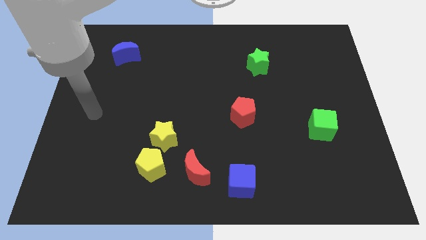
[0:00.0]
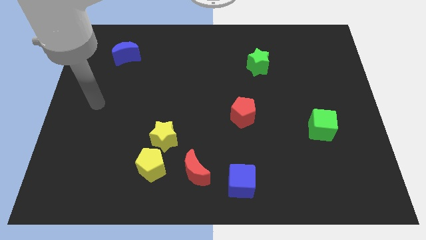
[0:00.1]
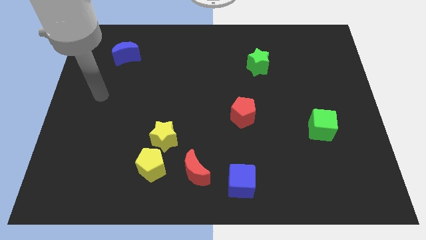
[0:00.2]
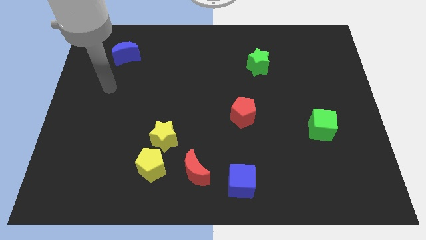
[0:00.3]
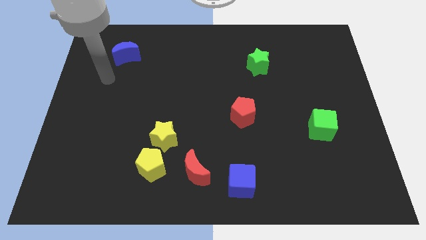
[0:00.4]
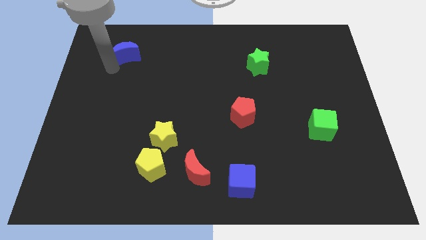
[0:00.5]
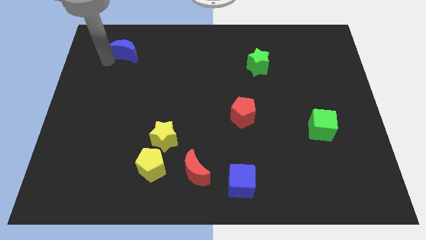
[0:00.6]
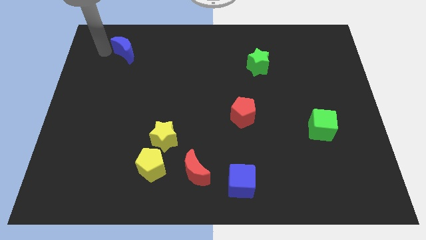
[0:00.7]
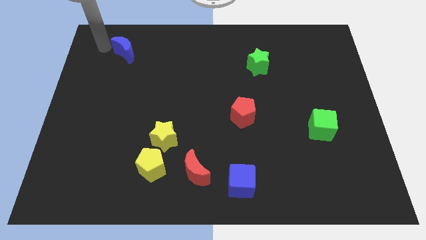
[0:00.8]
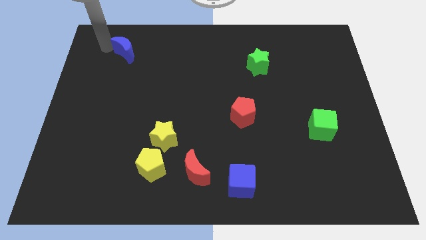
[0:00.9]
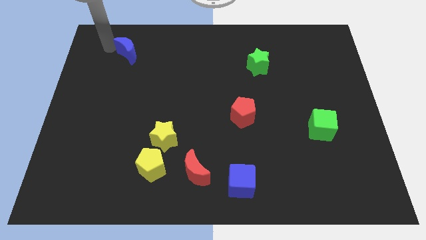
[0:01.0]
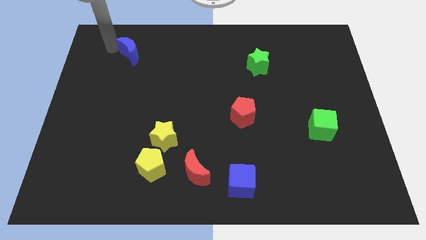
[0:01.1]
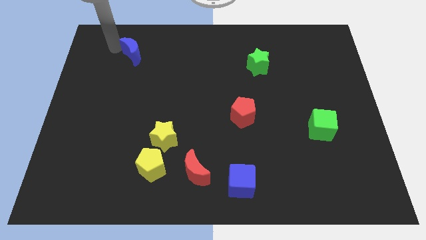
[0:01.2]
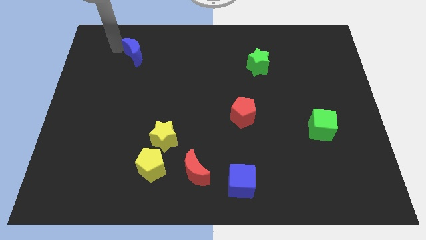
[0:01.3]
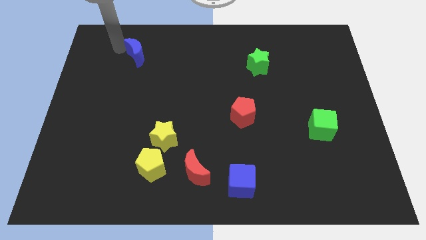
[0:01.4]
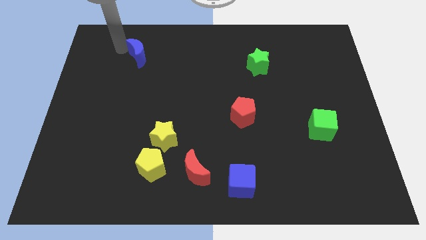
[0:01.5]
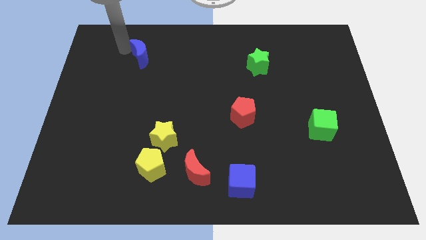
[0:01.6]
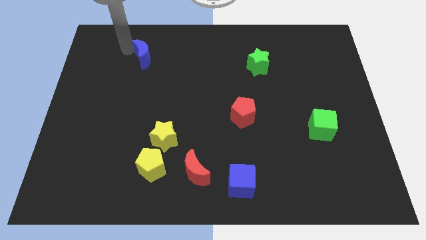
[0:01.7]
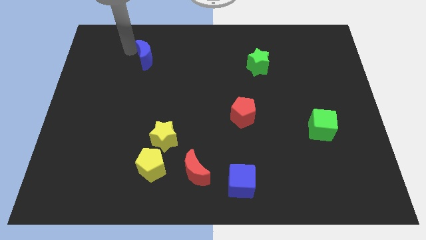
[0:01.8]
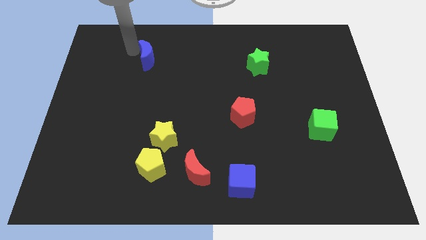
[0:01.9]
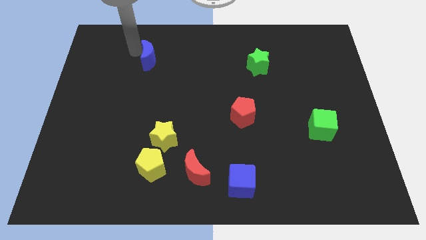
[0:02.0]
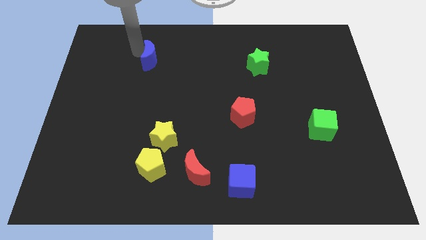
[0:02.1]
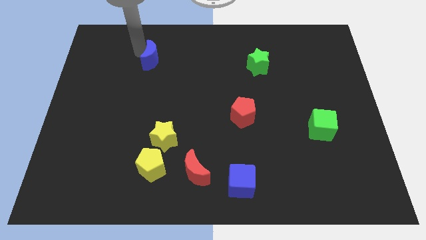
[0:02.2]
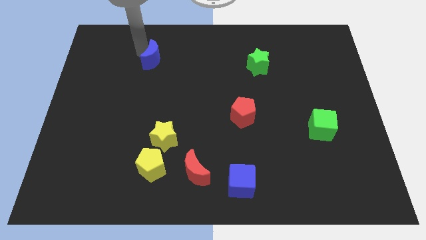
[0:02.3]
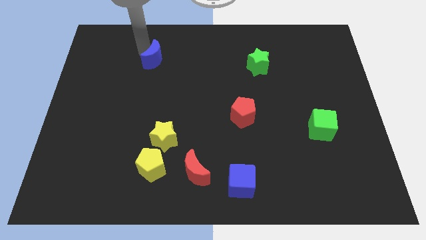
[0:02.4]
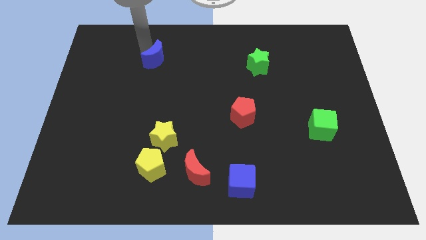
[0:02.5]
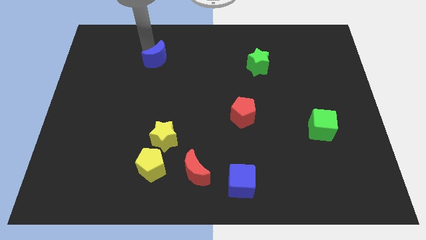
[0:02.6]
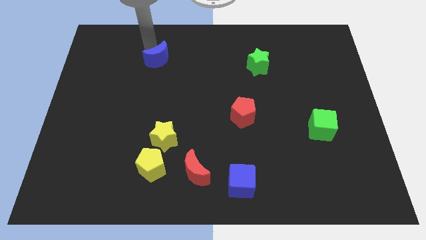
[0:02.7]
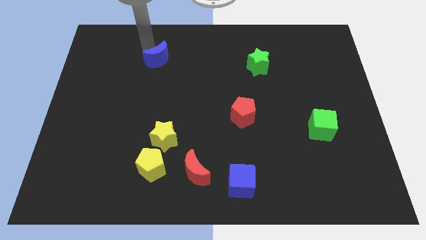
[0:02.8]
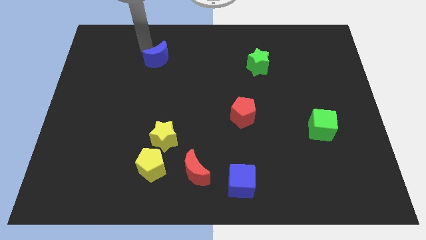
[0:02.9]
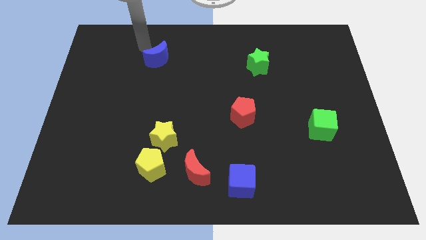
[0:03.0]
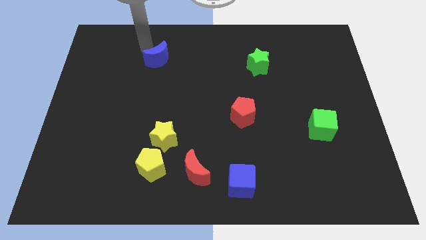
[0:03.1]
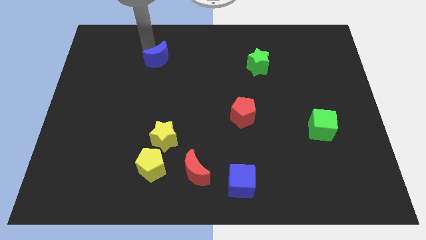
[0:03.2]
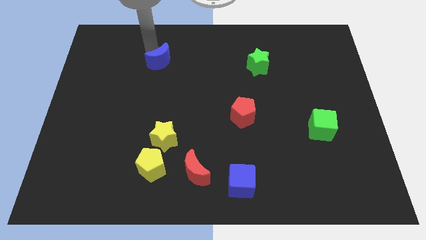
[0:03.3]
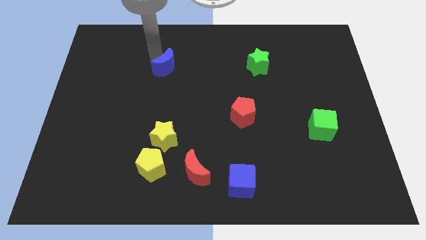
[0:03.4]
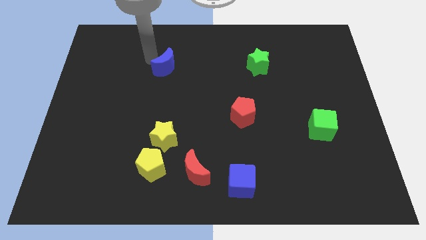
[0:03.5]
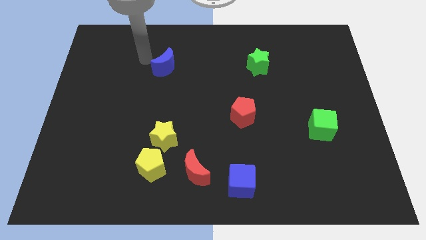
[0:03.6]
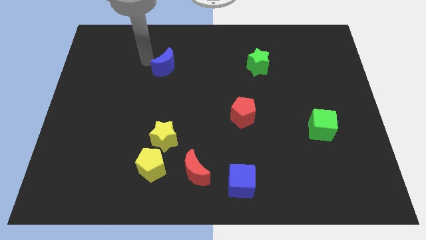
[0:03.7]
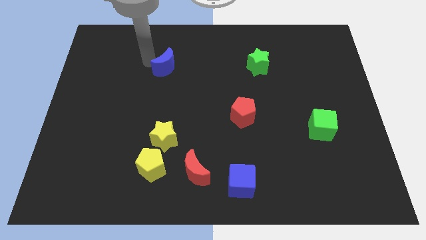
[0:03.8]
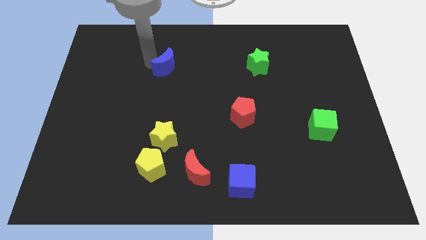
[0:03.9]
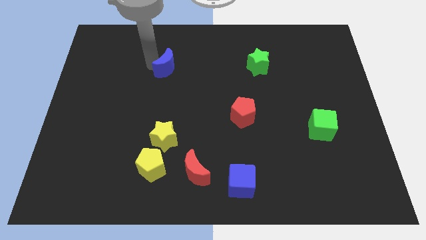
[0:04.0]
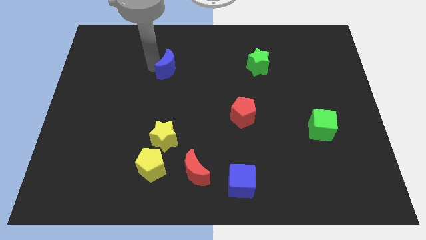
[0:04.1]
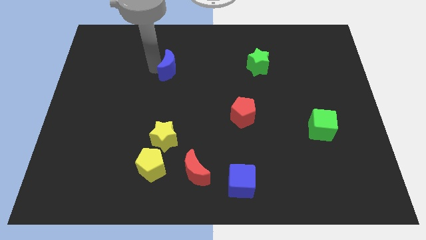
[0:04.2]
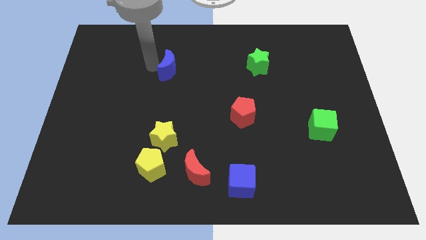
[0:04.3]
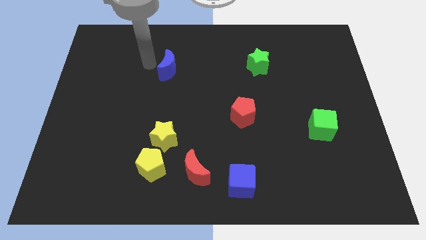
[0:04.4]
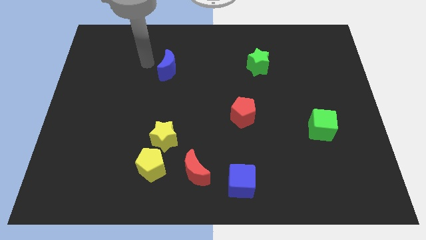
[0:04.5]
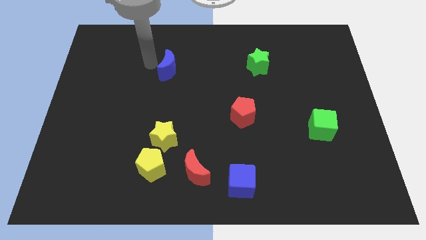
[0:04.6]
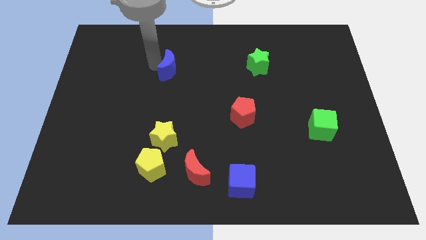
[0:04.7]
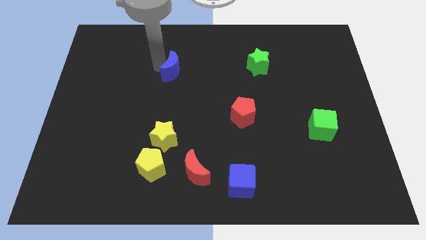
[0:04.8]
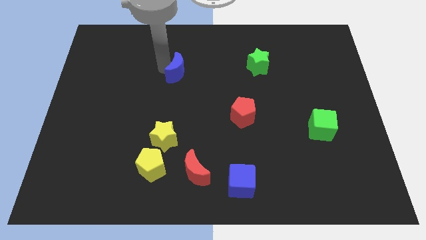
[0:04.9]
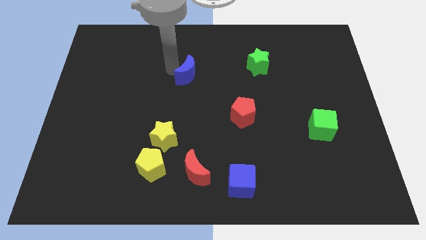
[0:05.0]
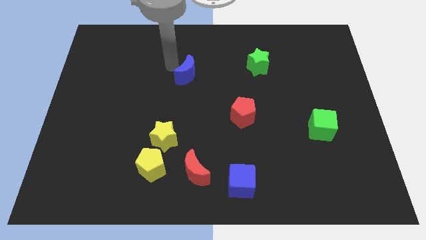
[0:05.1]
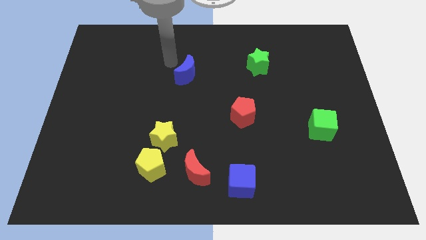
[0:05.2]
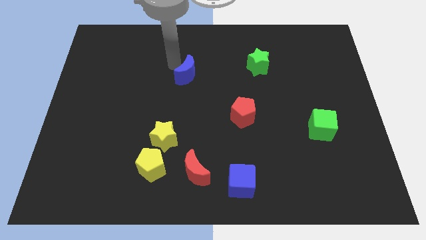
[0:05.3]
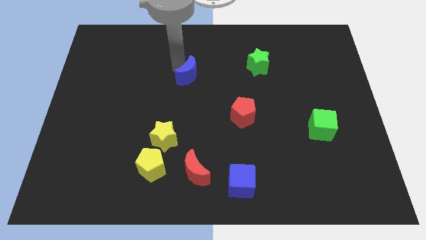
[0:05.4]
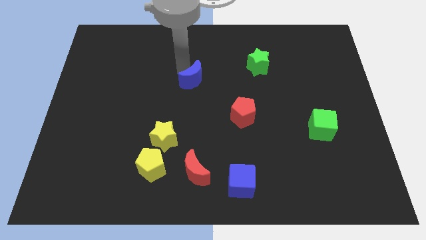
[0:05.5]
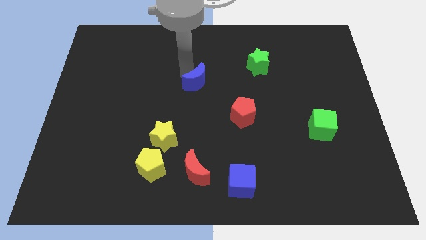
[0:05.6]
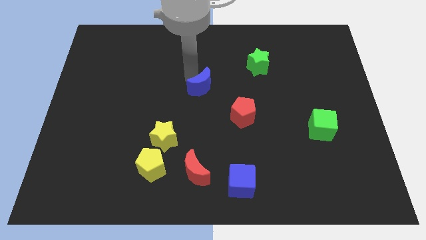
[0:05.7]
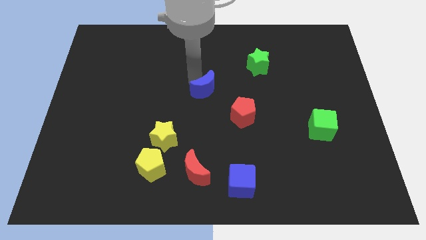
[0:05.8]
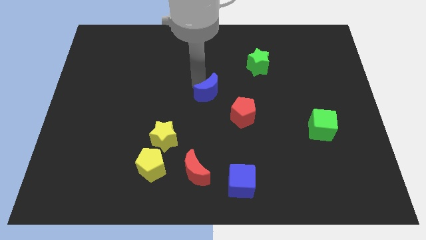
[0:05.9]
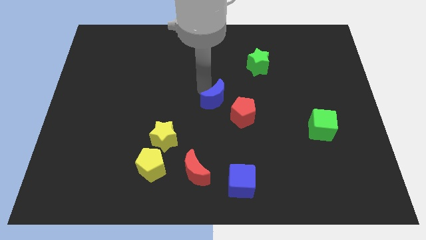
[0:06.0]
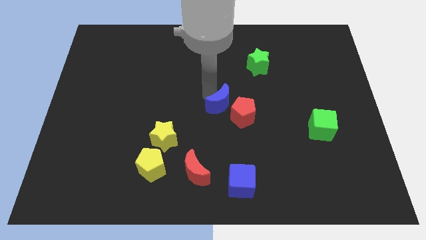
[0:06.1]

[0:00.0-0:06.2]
move the blue moon towards the red pentagon

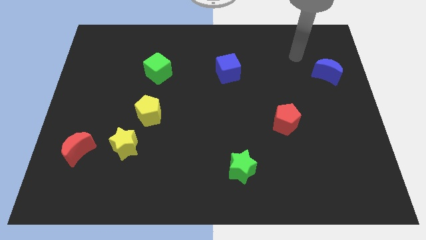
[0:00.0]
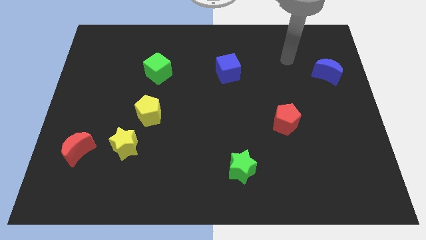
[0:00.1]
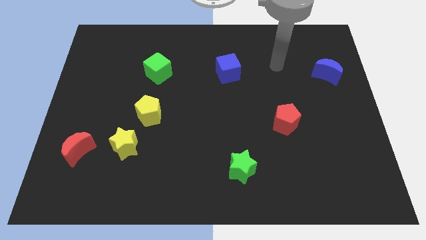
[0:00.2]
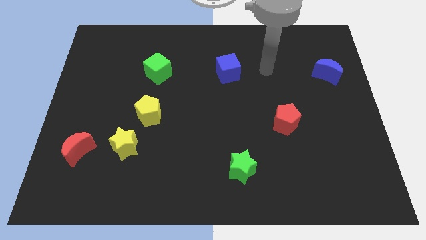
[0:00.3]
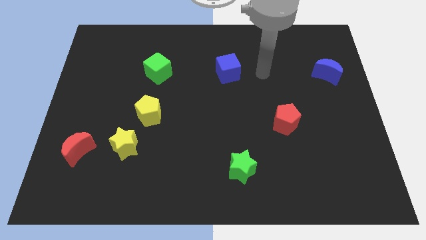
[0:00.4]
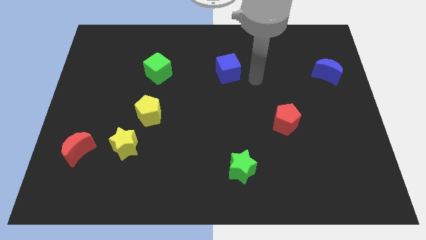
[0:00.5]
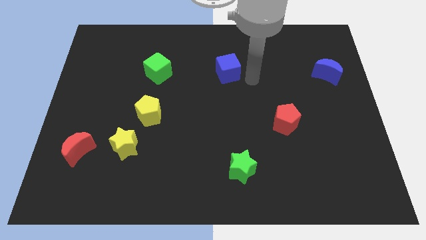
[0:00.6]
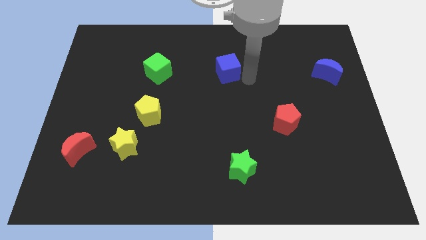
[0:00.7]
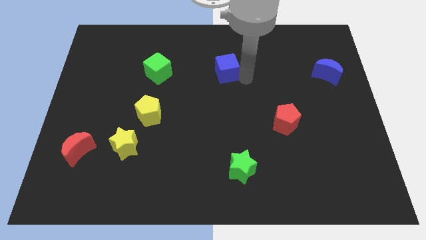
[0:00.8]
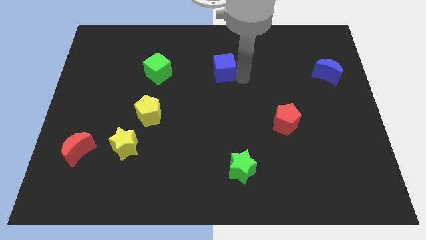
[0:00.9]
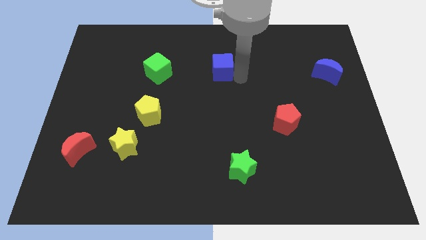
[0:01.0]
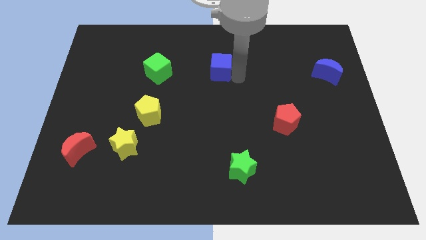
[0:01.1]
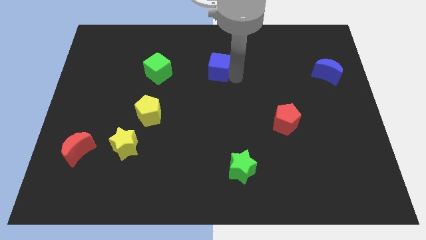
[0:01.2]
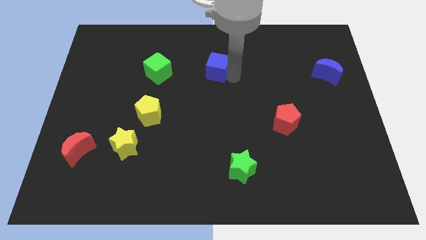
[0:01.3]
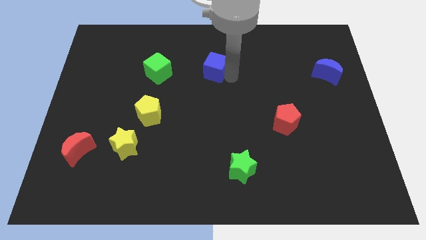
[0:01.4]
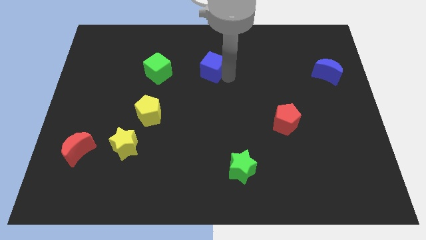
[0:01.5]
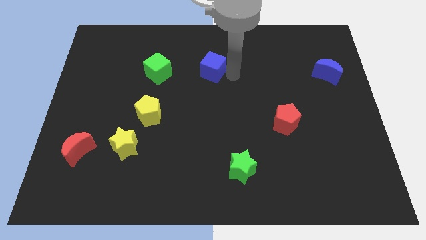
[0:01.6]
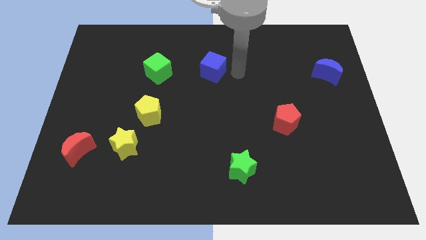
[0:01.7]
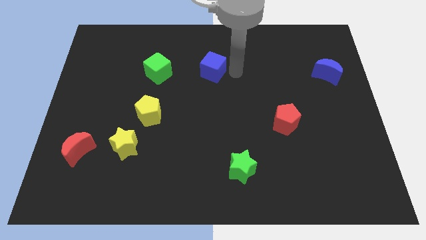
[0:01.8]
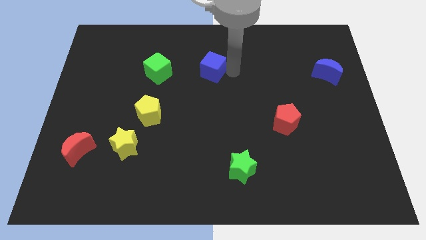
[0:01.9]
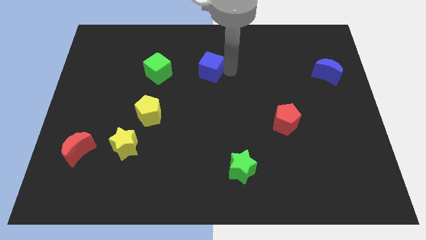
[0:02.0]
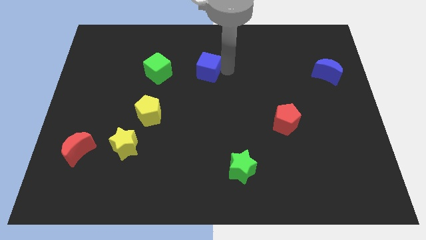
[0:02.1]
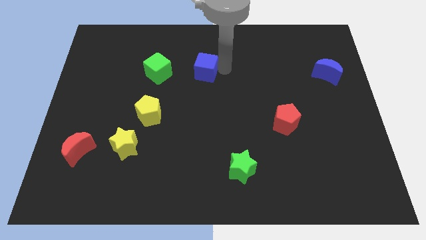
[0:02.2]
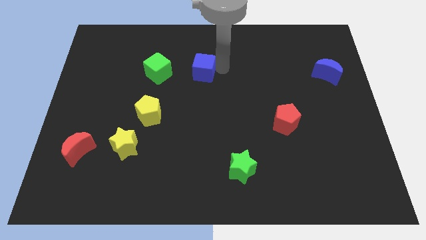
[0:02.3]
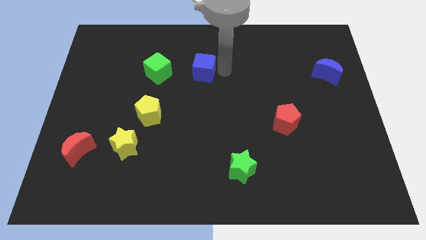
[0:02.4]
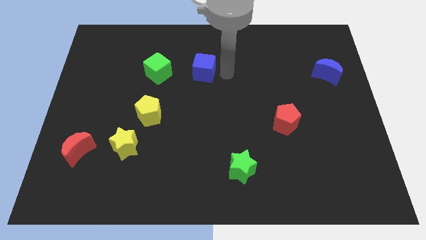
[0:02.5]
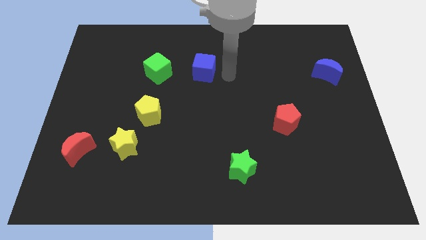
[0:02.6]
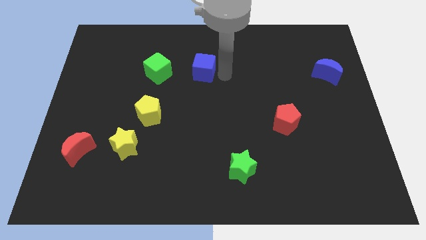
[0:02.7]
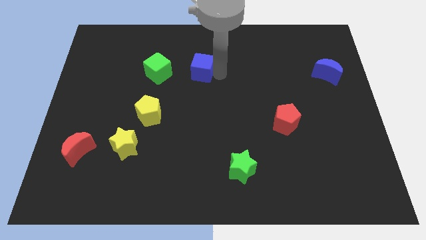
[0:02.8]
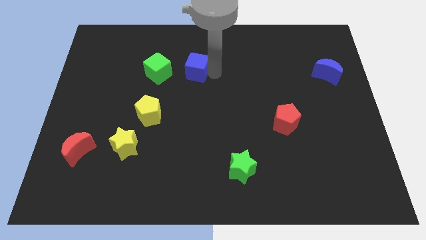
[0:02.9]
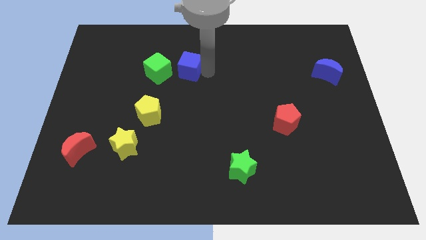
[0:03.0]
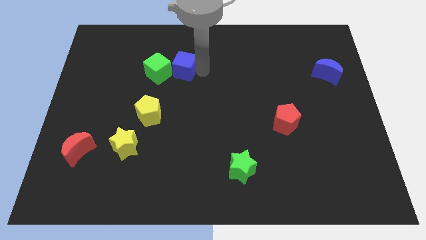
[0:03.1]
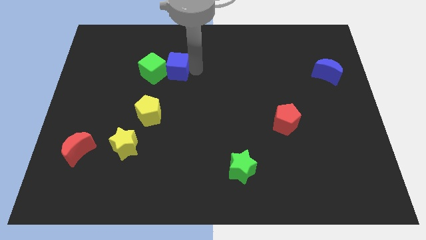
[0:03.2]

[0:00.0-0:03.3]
slide the blue cube close to the green cube
